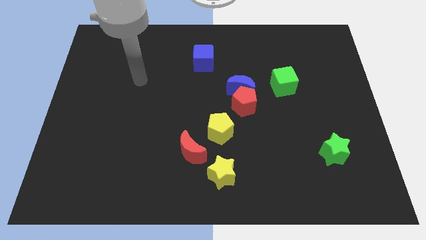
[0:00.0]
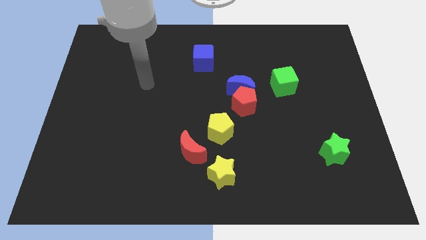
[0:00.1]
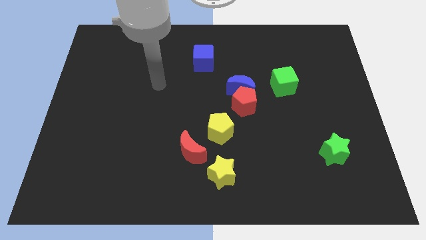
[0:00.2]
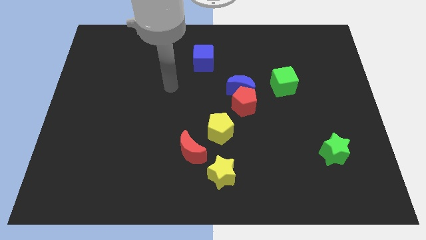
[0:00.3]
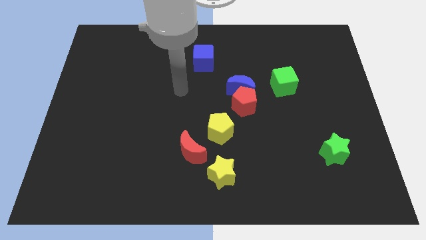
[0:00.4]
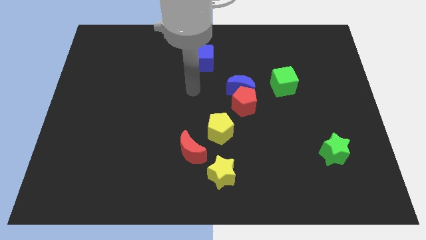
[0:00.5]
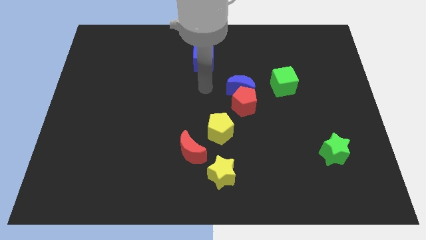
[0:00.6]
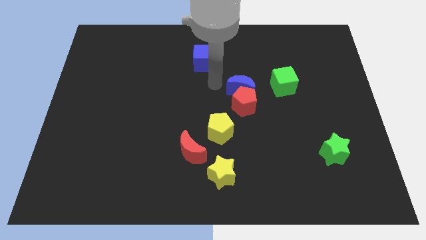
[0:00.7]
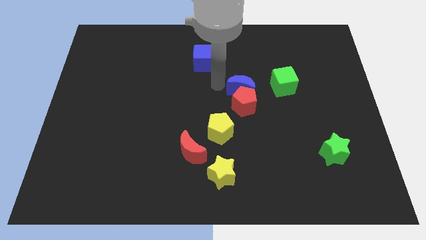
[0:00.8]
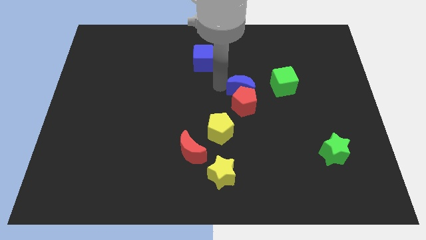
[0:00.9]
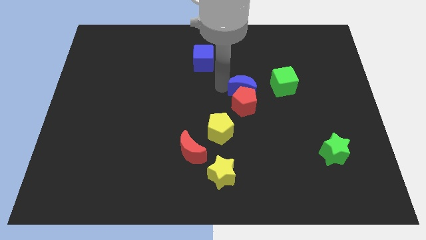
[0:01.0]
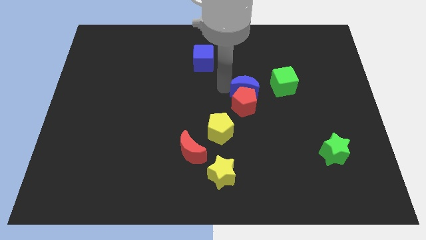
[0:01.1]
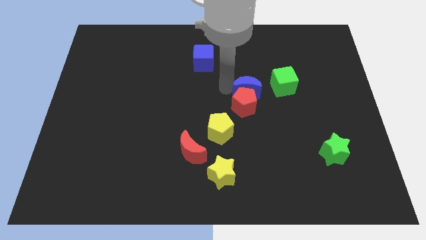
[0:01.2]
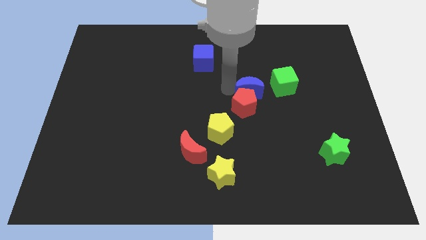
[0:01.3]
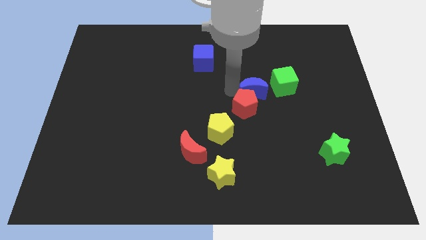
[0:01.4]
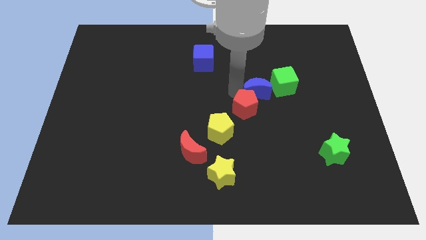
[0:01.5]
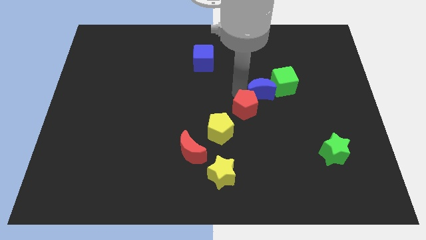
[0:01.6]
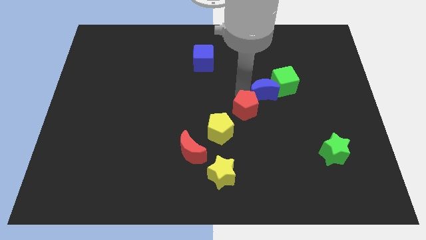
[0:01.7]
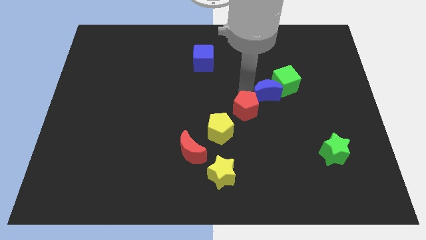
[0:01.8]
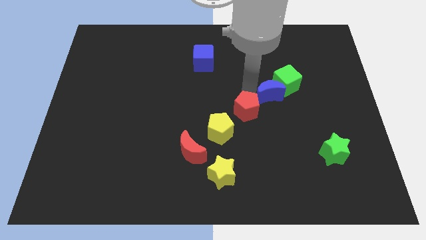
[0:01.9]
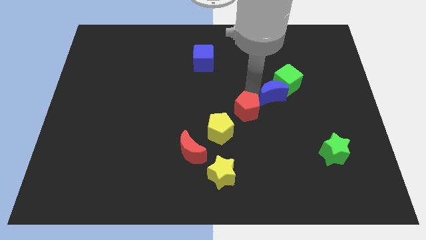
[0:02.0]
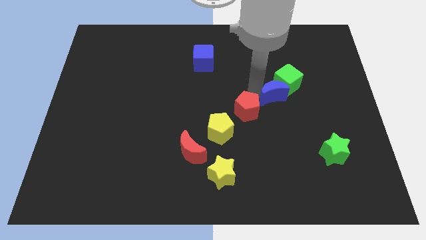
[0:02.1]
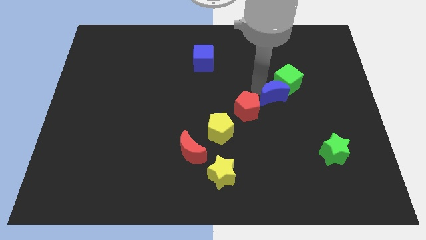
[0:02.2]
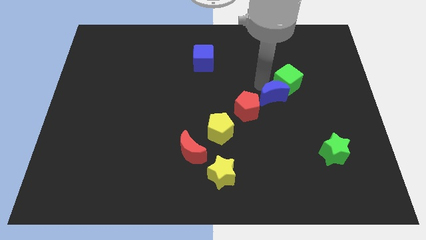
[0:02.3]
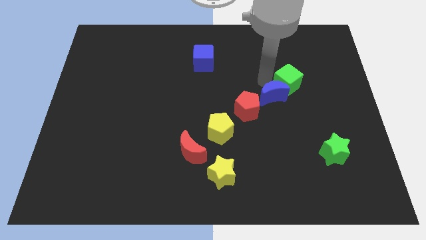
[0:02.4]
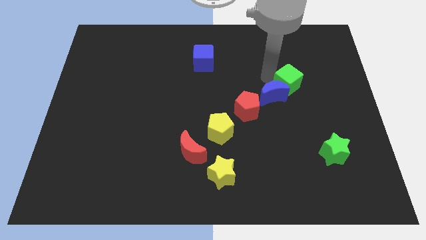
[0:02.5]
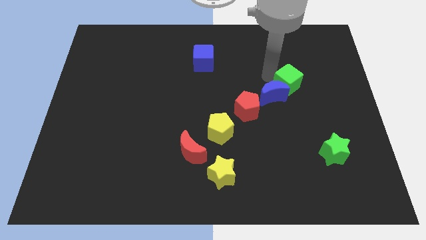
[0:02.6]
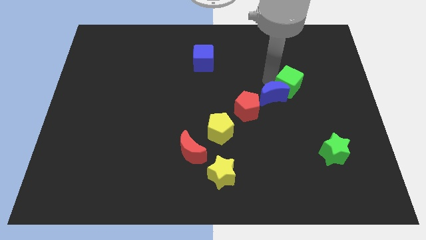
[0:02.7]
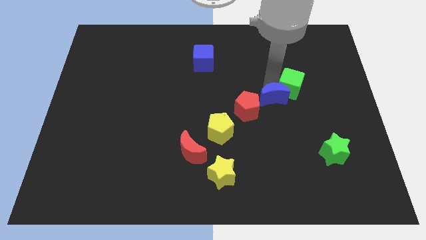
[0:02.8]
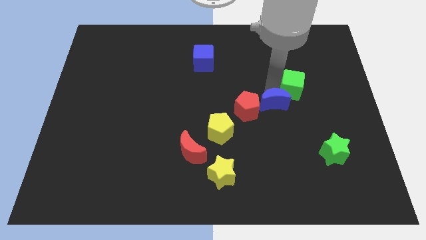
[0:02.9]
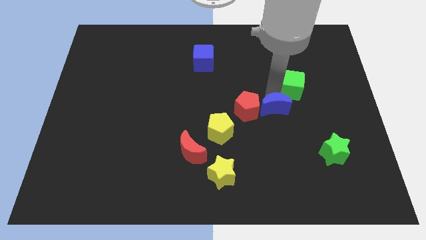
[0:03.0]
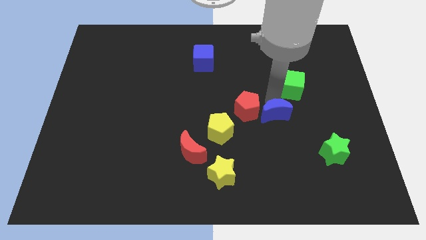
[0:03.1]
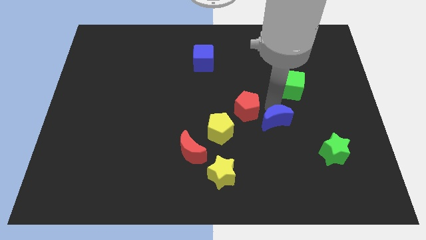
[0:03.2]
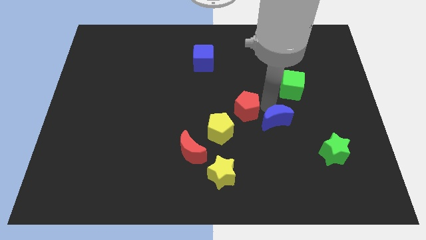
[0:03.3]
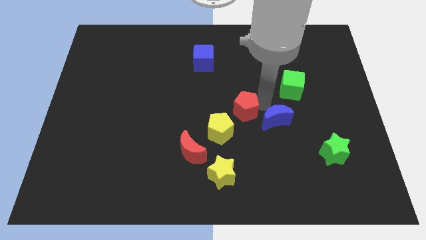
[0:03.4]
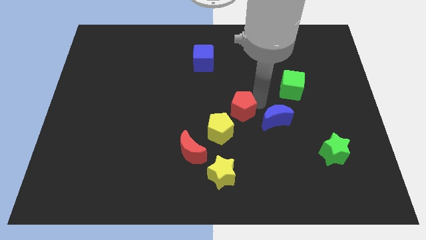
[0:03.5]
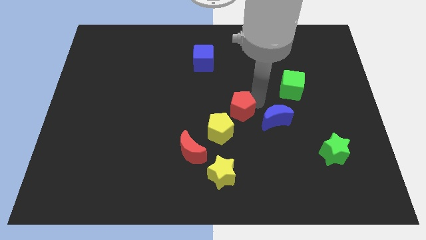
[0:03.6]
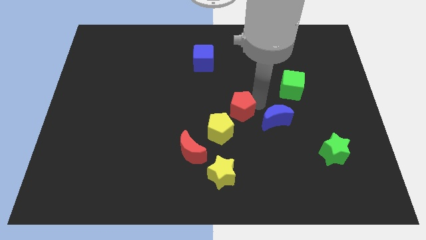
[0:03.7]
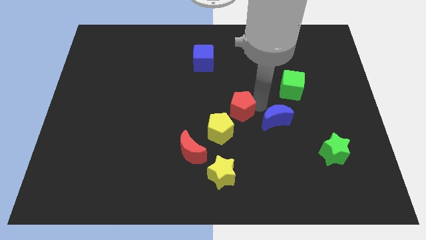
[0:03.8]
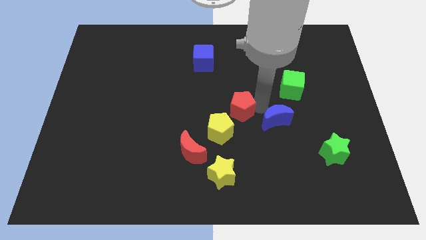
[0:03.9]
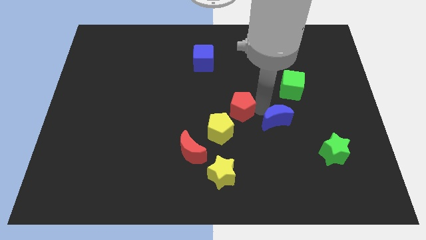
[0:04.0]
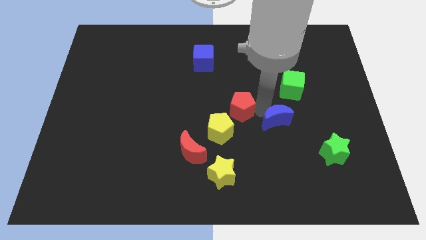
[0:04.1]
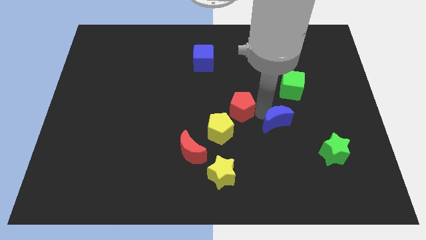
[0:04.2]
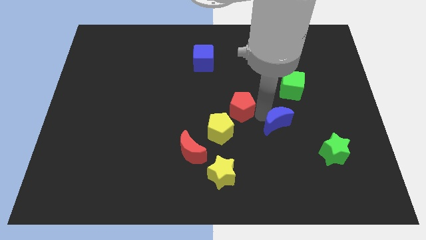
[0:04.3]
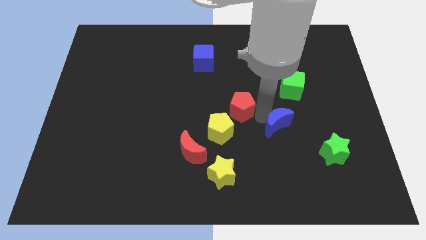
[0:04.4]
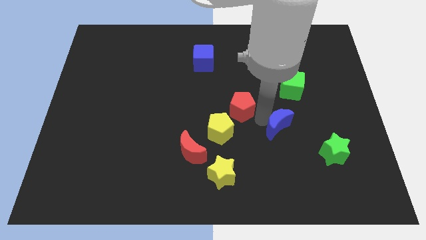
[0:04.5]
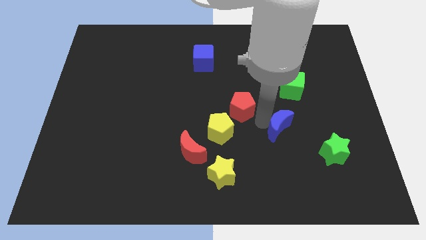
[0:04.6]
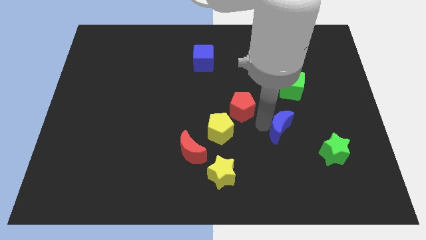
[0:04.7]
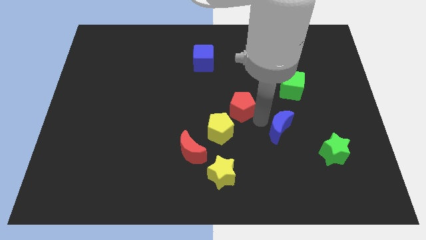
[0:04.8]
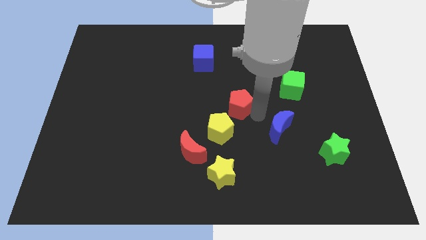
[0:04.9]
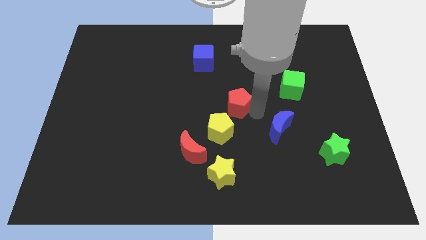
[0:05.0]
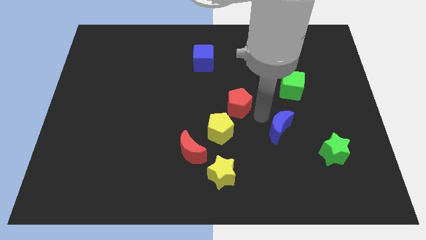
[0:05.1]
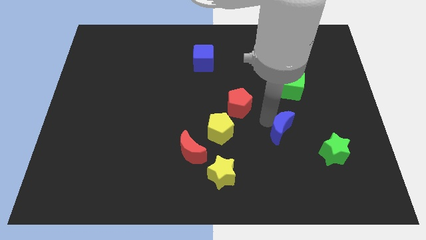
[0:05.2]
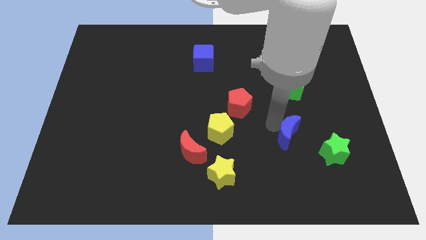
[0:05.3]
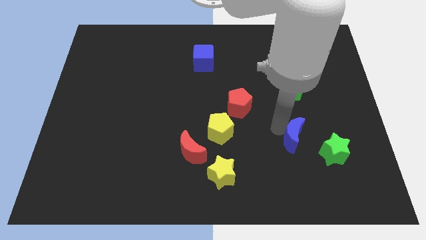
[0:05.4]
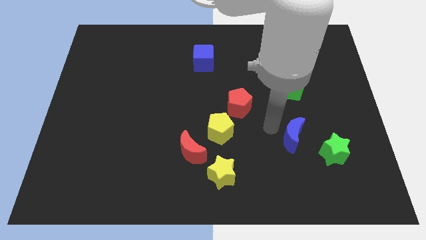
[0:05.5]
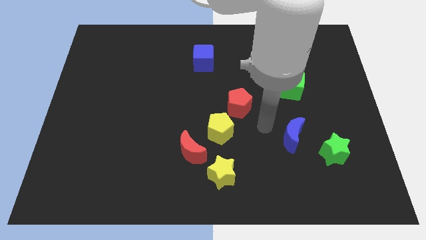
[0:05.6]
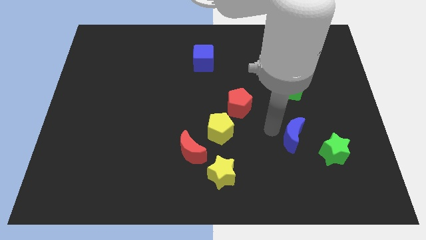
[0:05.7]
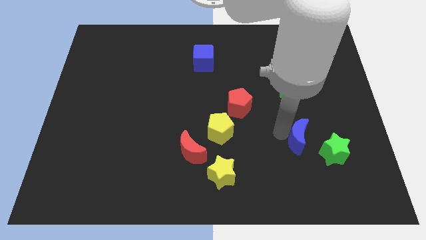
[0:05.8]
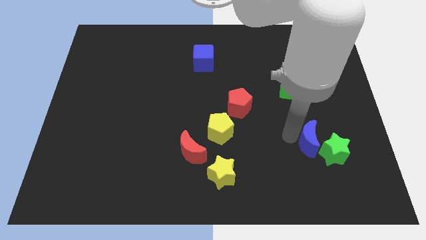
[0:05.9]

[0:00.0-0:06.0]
move the blue moon towards the green star

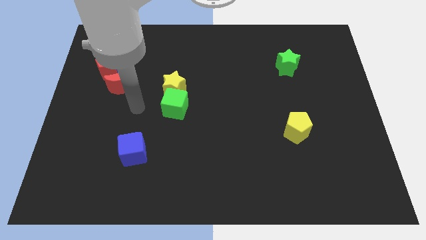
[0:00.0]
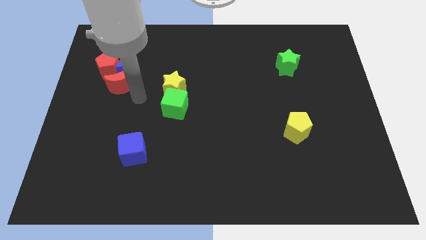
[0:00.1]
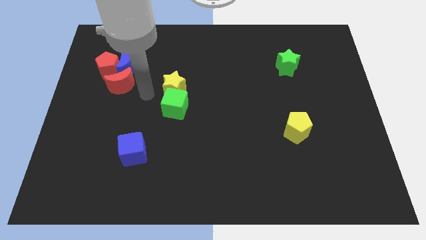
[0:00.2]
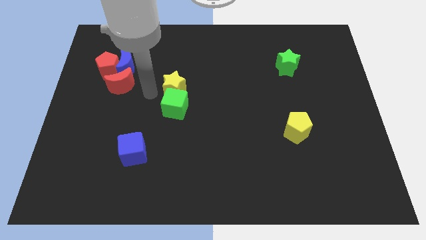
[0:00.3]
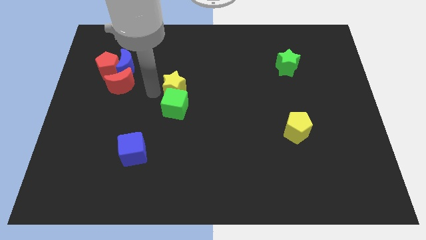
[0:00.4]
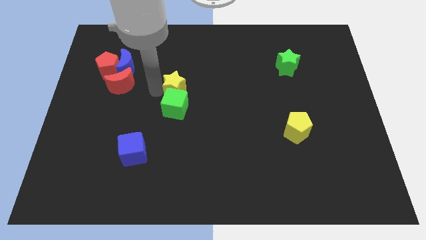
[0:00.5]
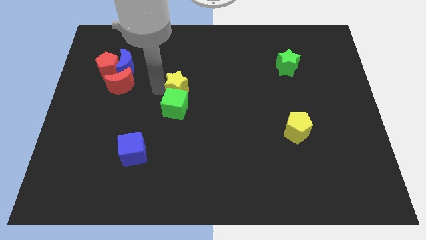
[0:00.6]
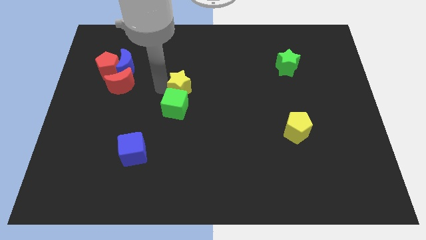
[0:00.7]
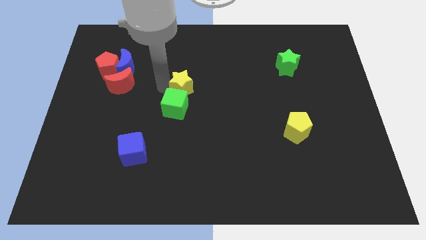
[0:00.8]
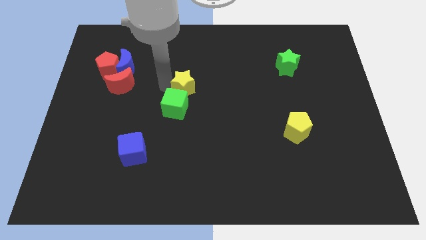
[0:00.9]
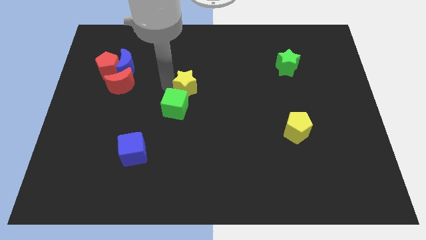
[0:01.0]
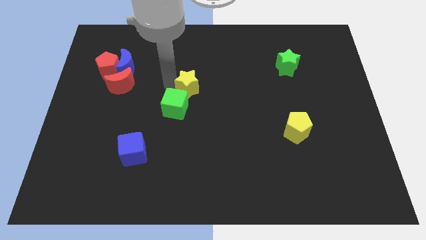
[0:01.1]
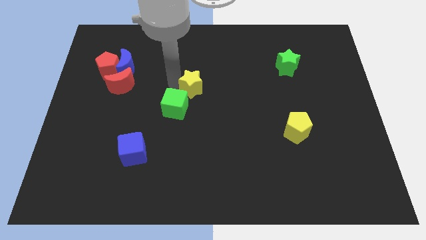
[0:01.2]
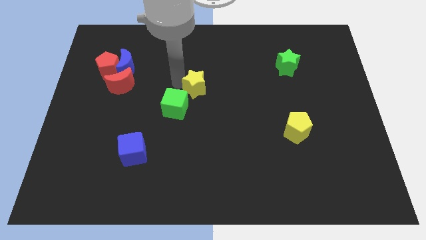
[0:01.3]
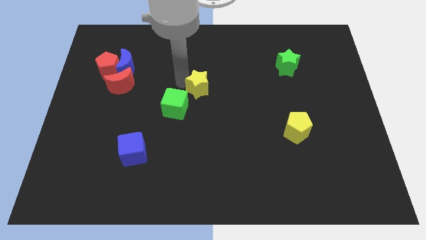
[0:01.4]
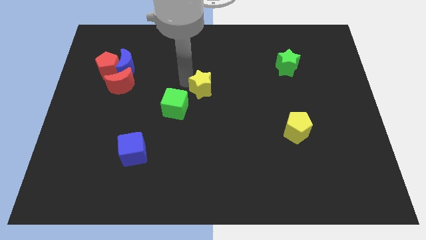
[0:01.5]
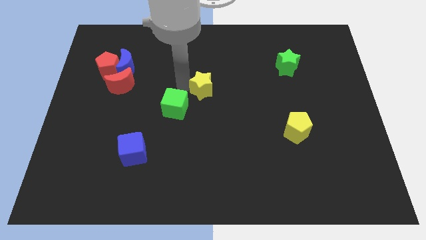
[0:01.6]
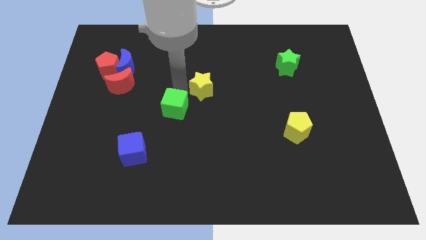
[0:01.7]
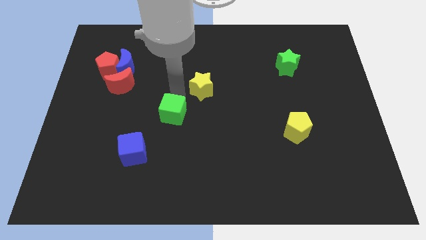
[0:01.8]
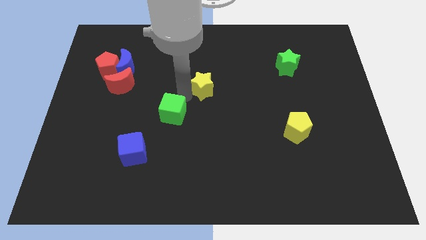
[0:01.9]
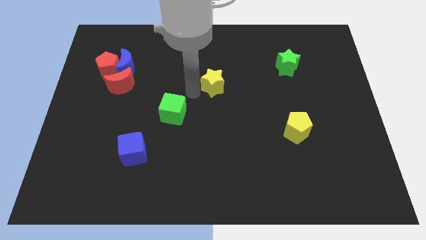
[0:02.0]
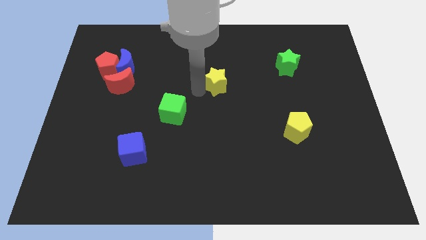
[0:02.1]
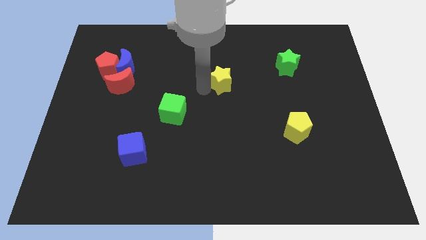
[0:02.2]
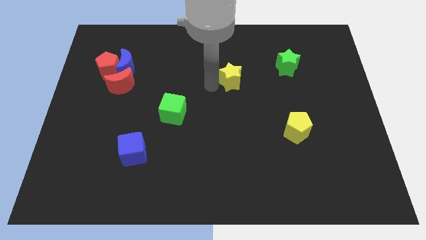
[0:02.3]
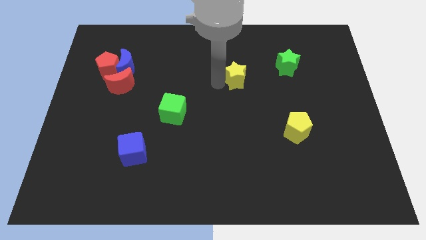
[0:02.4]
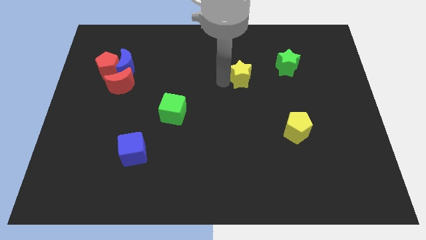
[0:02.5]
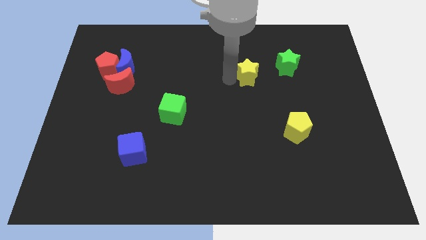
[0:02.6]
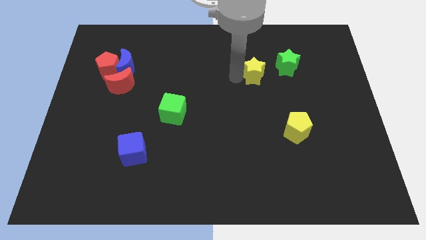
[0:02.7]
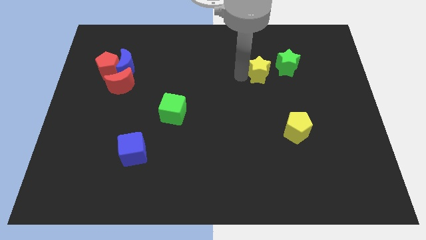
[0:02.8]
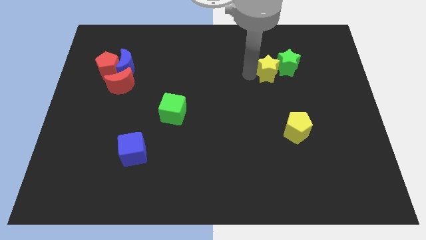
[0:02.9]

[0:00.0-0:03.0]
move the yellow star to the green star
